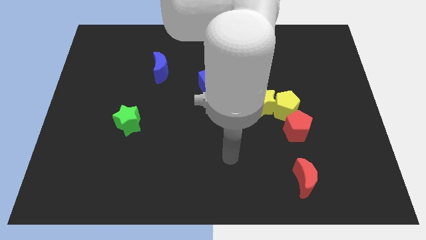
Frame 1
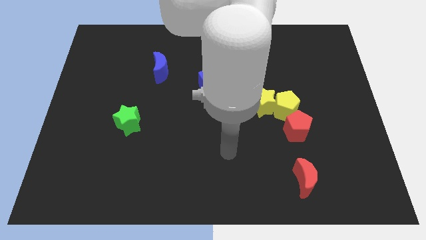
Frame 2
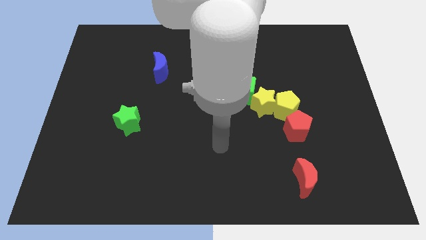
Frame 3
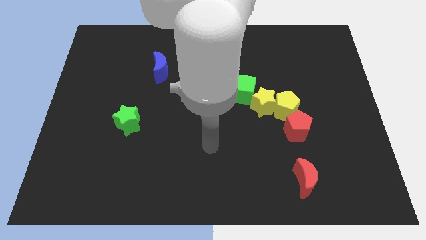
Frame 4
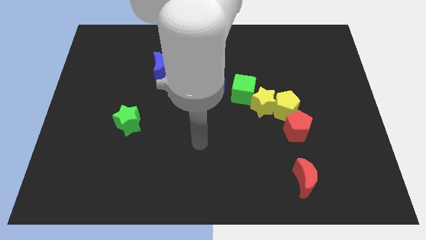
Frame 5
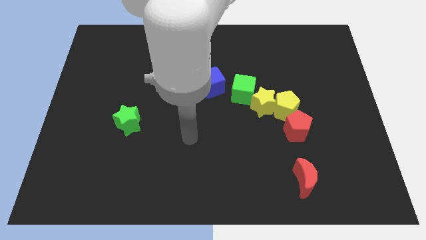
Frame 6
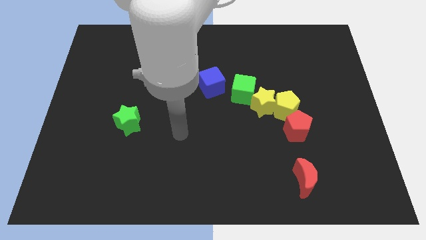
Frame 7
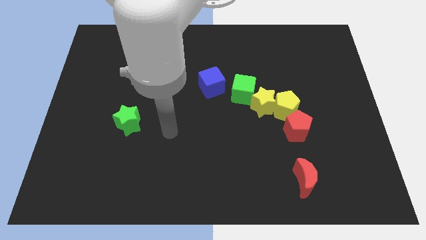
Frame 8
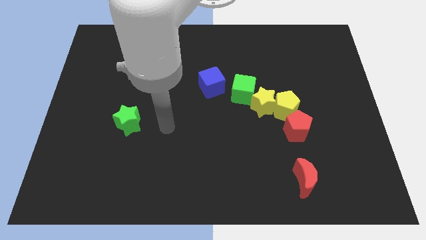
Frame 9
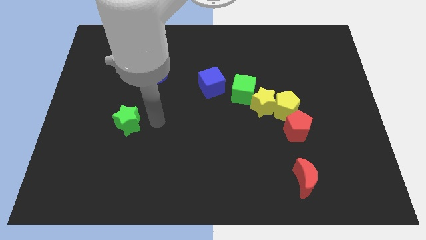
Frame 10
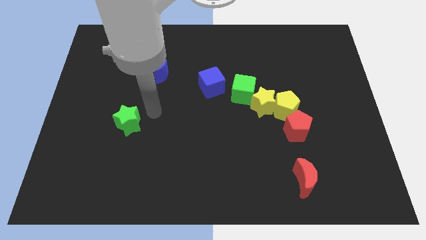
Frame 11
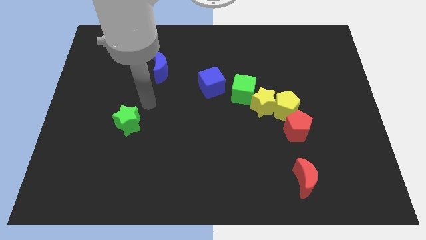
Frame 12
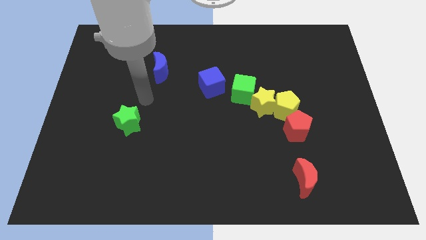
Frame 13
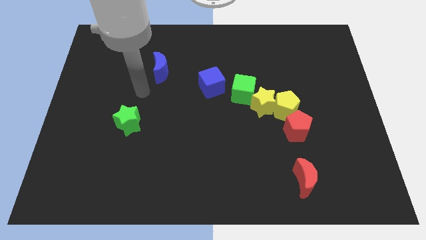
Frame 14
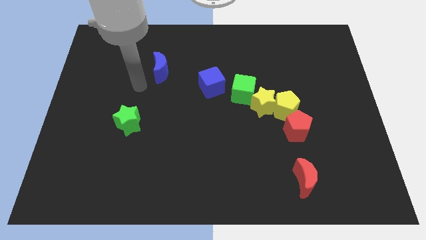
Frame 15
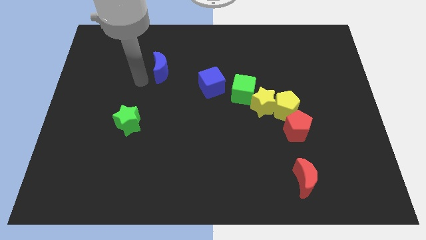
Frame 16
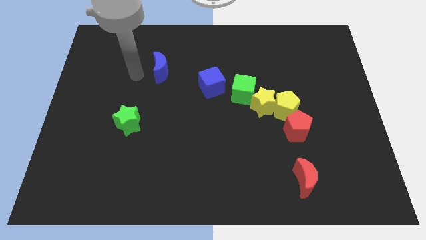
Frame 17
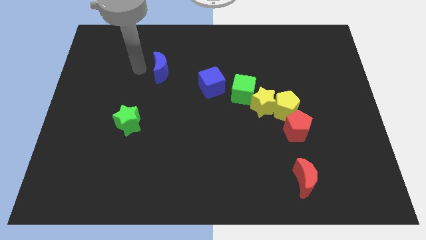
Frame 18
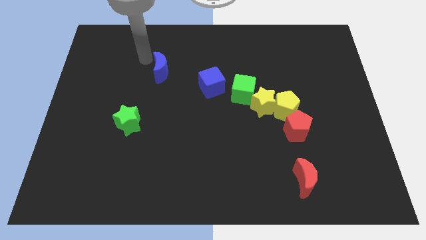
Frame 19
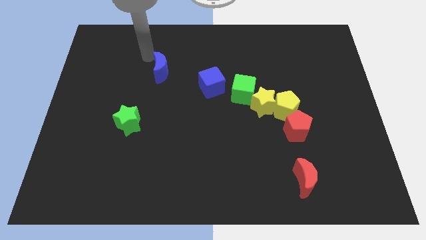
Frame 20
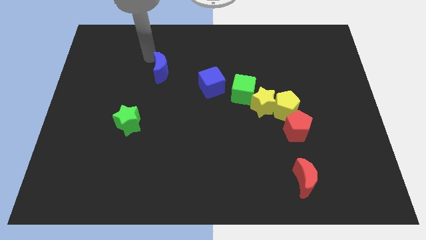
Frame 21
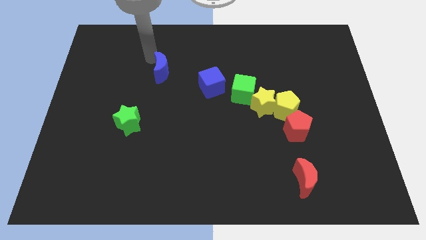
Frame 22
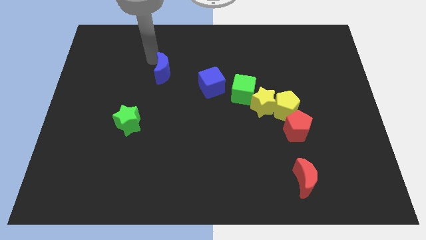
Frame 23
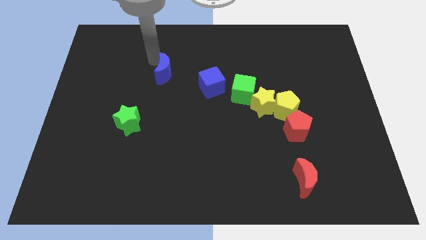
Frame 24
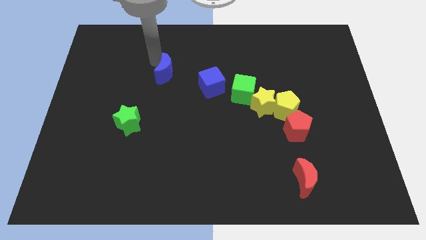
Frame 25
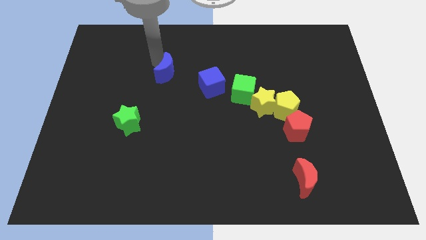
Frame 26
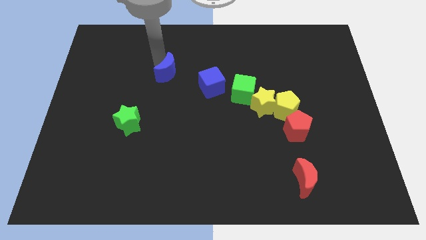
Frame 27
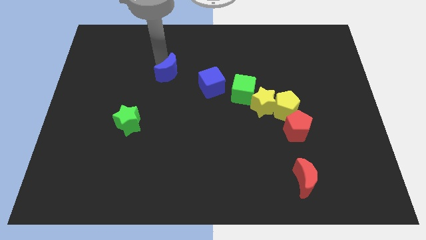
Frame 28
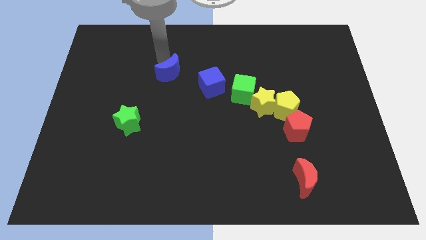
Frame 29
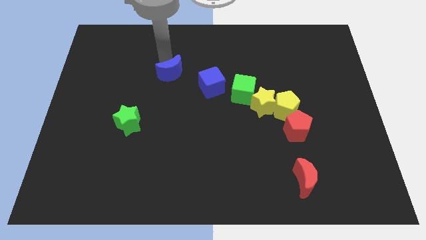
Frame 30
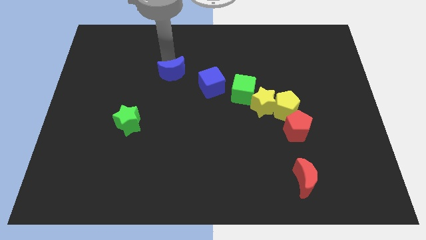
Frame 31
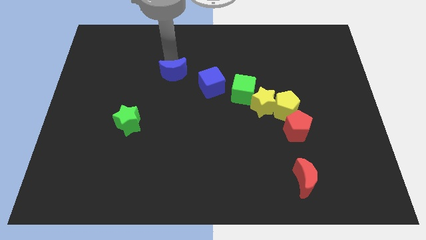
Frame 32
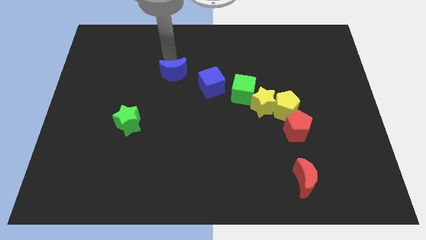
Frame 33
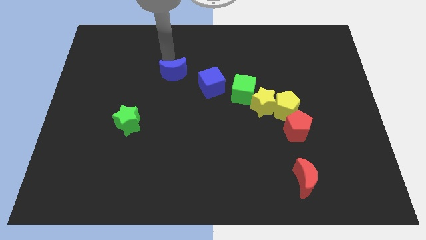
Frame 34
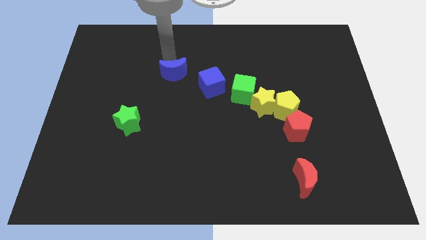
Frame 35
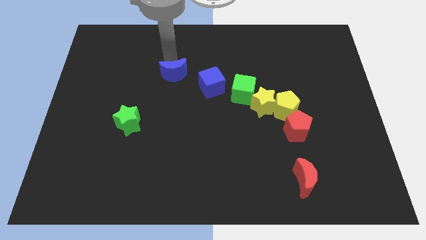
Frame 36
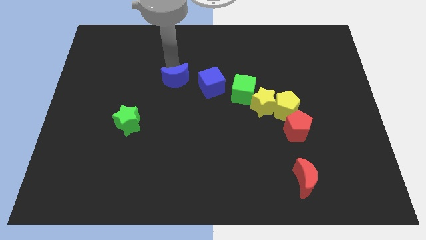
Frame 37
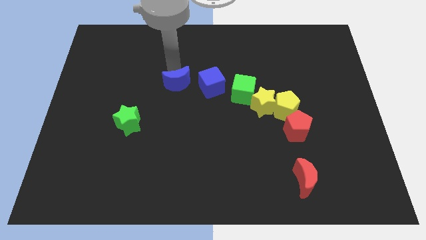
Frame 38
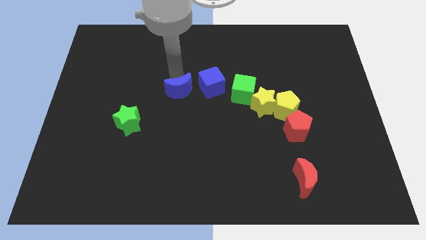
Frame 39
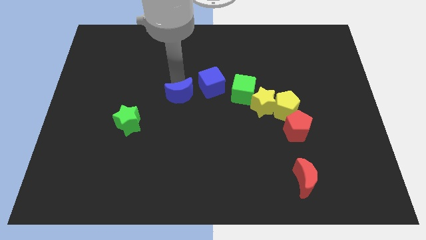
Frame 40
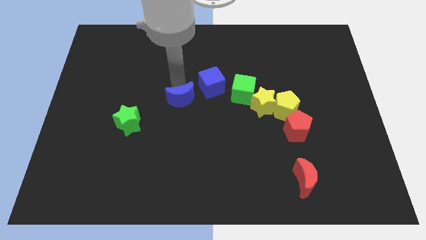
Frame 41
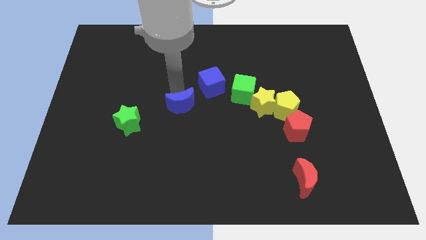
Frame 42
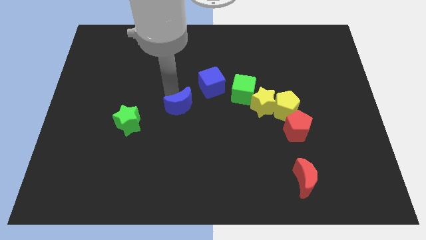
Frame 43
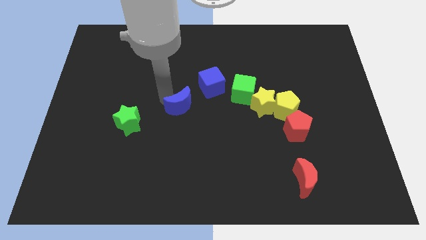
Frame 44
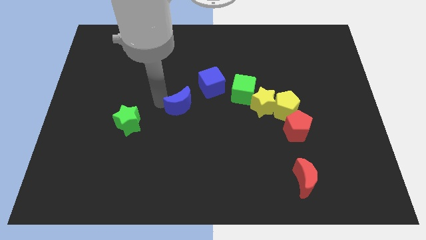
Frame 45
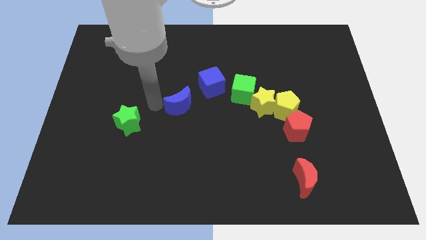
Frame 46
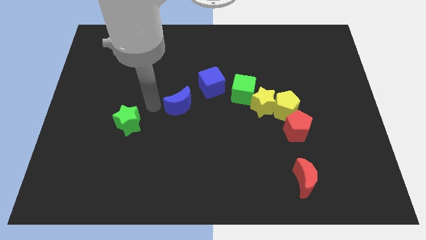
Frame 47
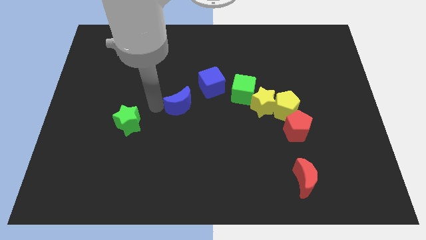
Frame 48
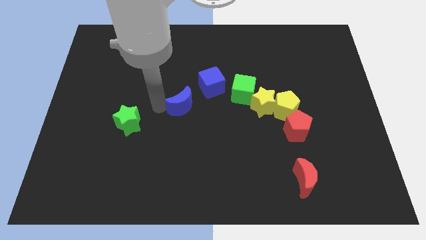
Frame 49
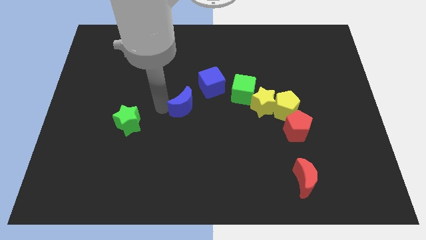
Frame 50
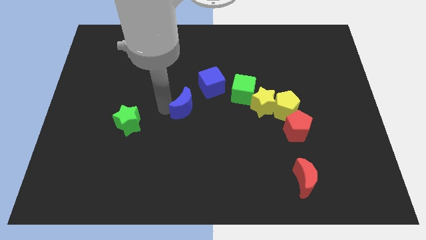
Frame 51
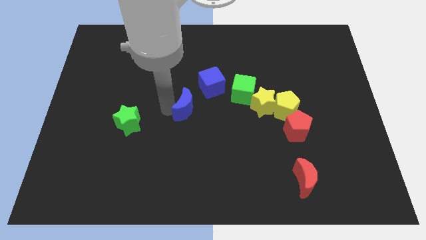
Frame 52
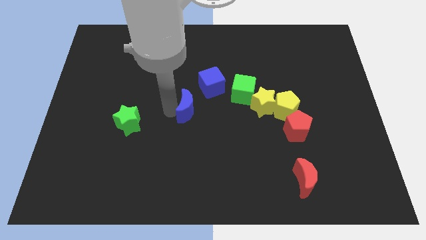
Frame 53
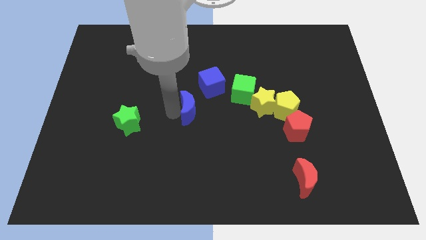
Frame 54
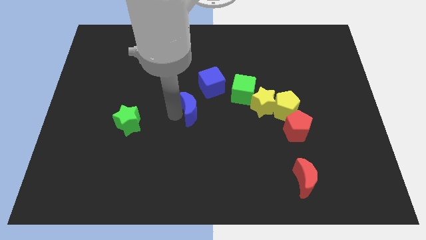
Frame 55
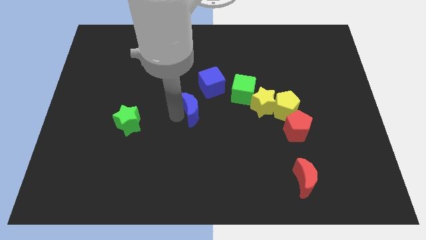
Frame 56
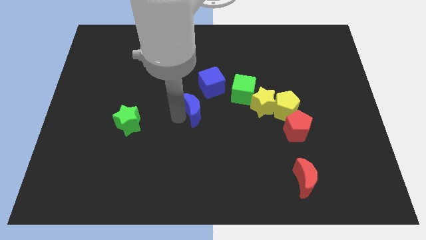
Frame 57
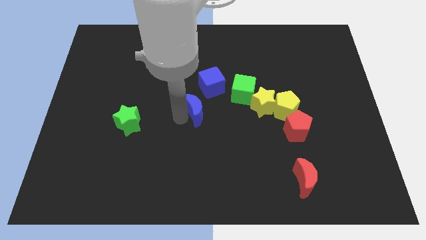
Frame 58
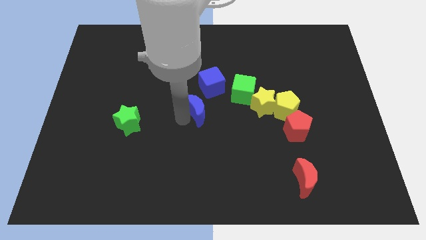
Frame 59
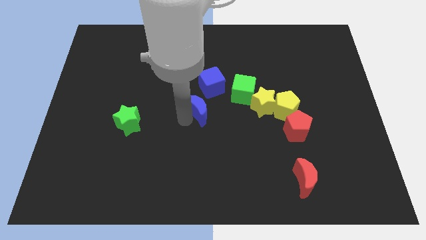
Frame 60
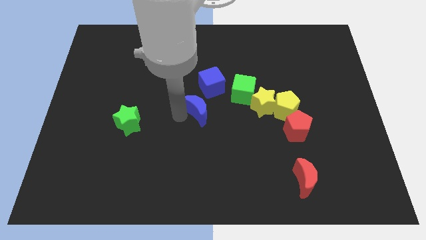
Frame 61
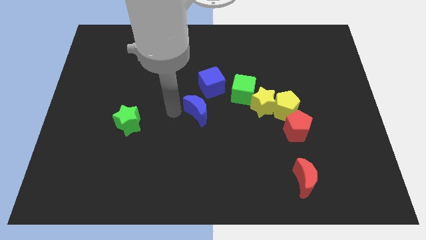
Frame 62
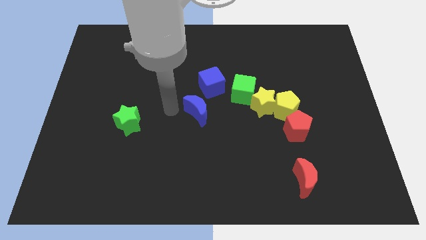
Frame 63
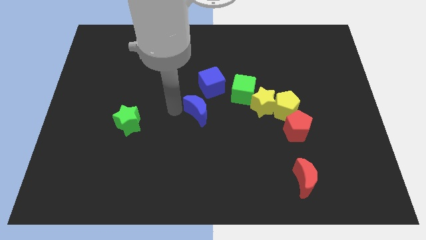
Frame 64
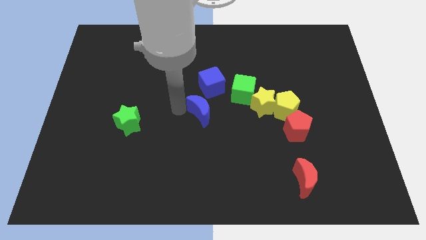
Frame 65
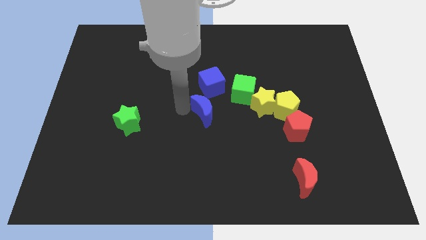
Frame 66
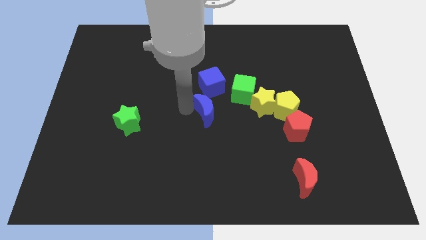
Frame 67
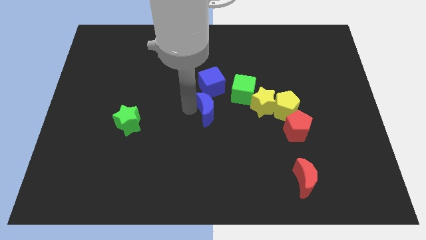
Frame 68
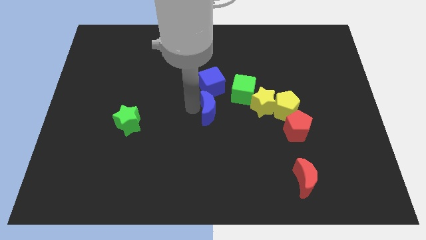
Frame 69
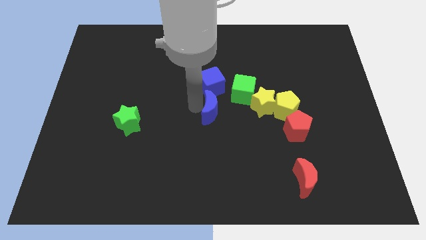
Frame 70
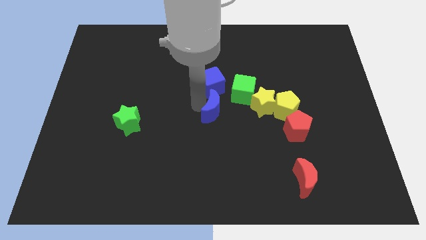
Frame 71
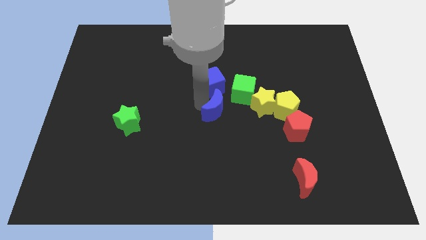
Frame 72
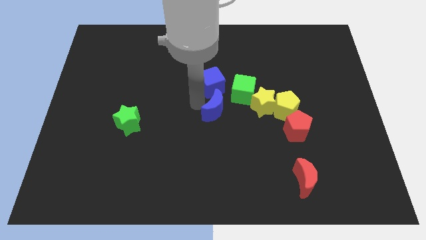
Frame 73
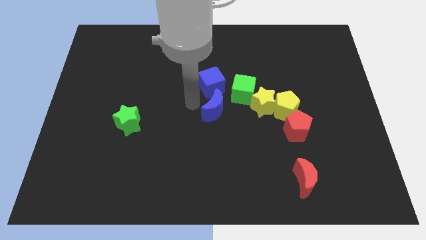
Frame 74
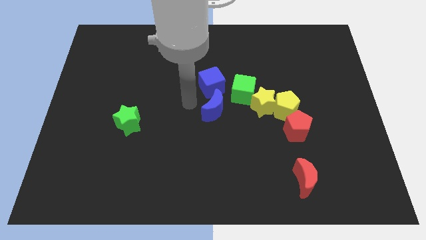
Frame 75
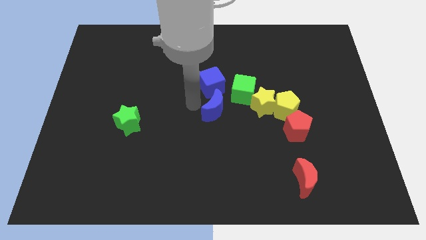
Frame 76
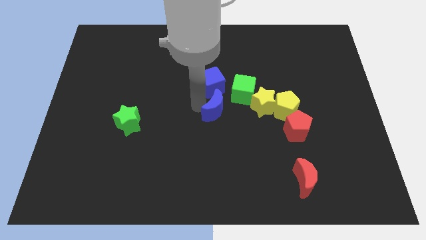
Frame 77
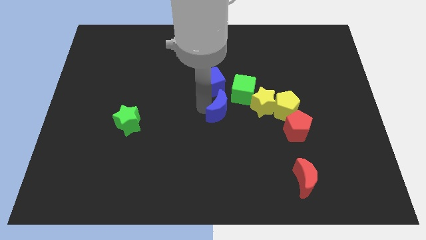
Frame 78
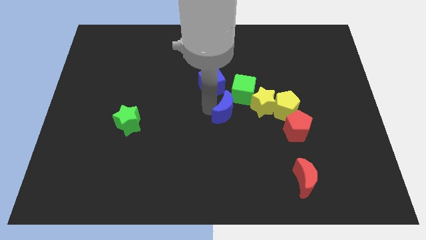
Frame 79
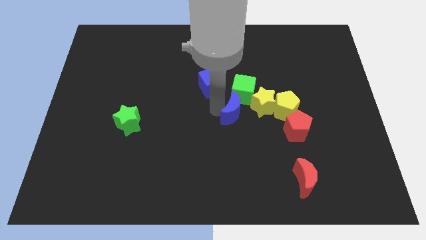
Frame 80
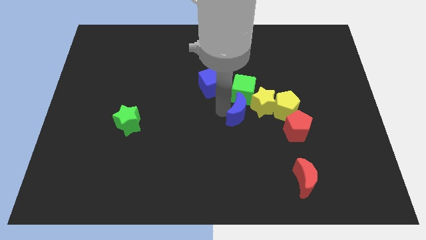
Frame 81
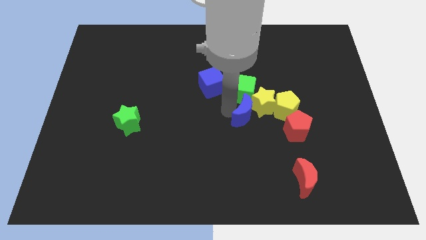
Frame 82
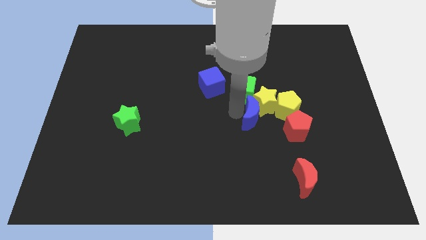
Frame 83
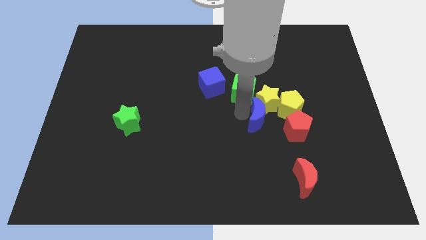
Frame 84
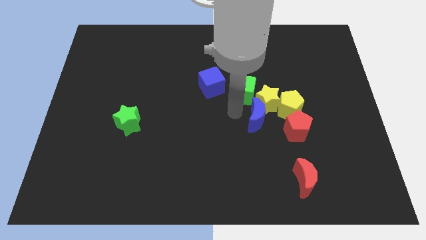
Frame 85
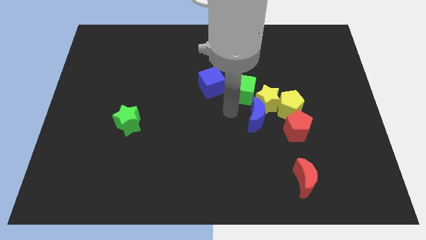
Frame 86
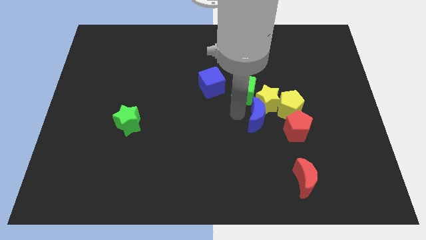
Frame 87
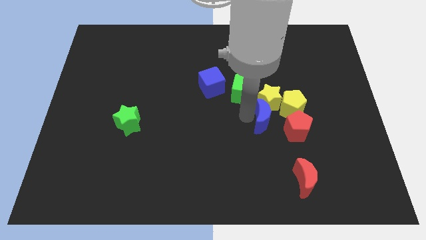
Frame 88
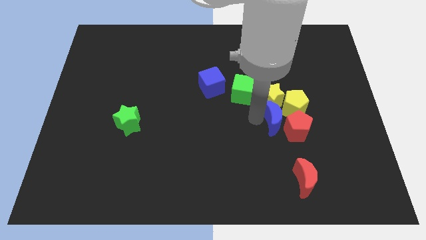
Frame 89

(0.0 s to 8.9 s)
push the blue moon to the red pentagon
